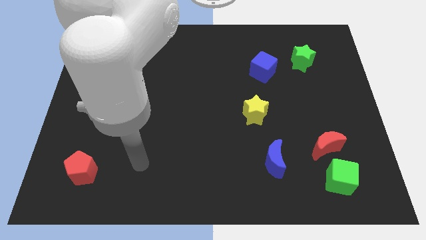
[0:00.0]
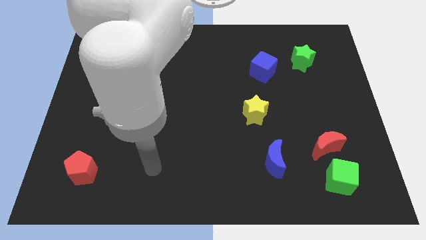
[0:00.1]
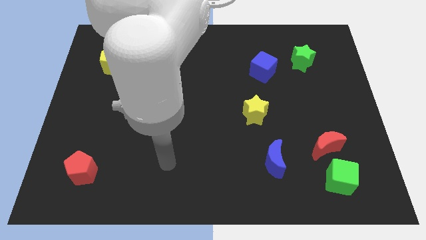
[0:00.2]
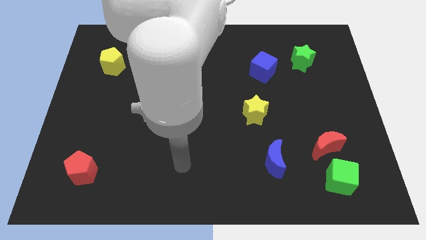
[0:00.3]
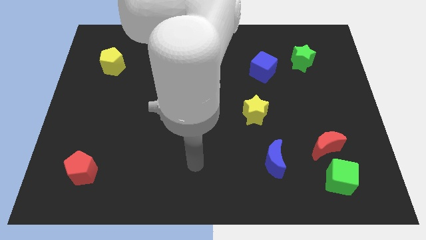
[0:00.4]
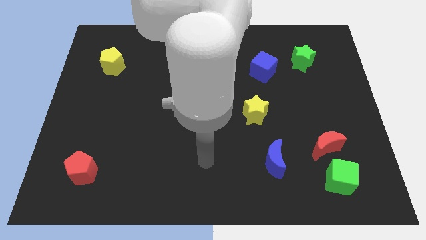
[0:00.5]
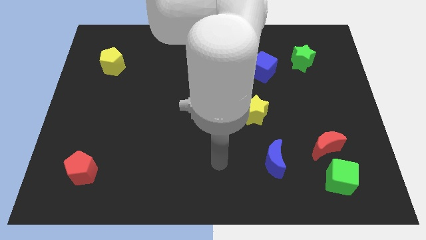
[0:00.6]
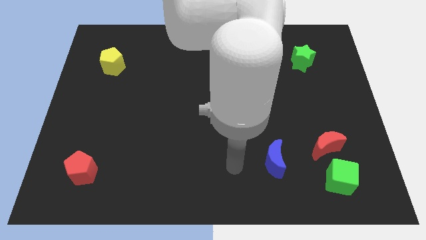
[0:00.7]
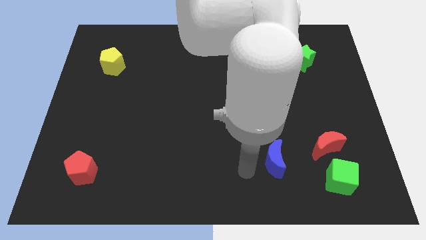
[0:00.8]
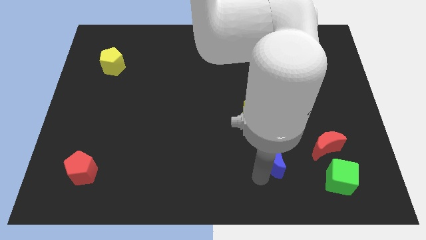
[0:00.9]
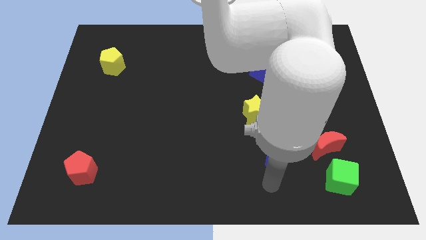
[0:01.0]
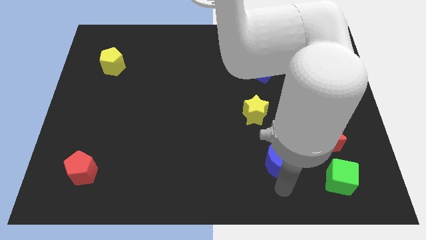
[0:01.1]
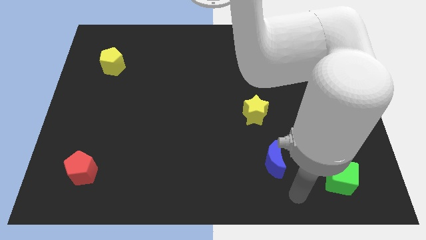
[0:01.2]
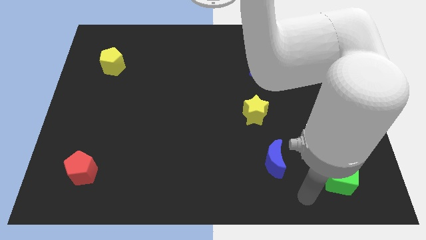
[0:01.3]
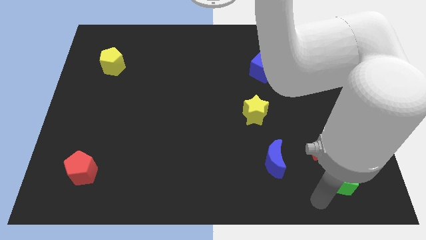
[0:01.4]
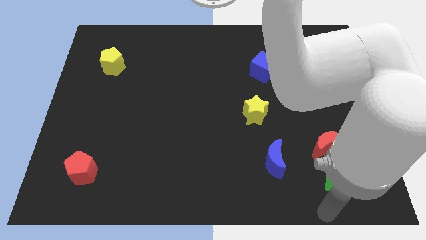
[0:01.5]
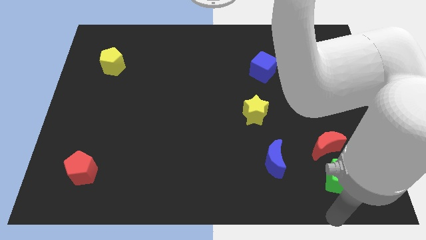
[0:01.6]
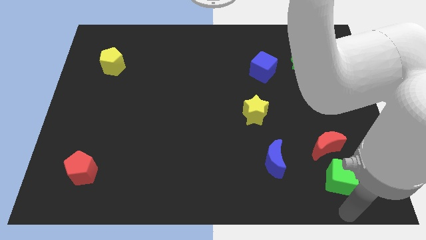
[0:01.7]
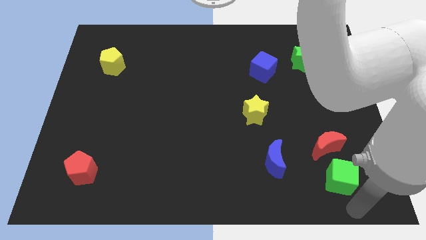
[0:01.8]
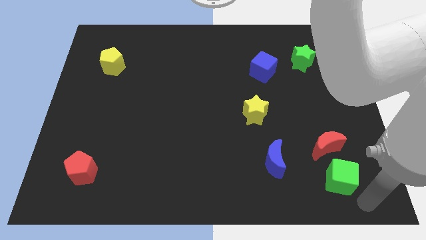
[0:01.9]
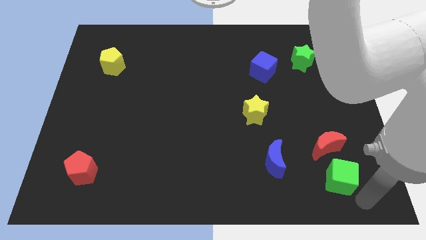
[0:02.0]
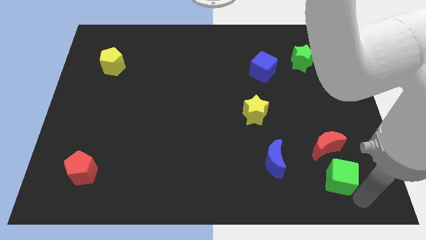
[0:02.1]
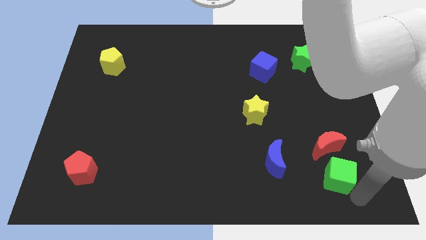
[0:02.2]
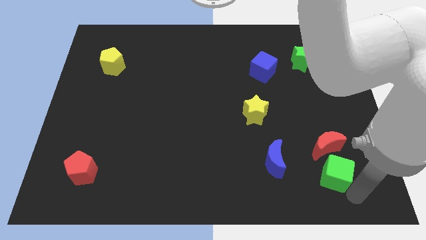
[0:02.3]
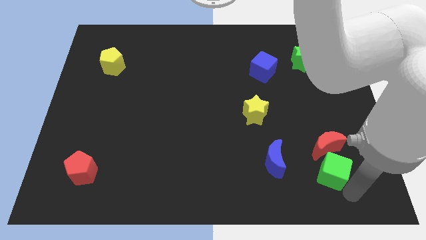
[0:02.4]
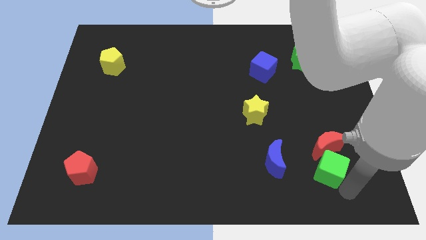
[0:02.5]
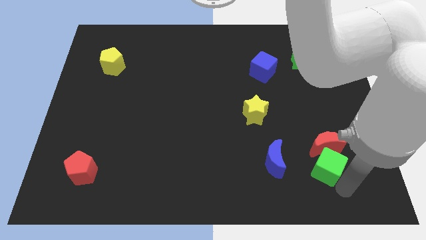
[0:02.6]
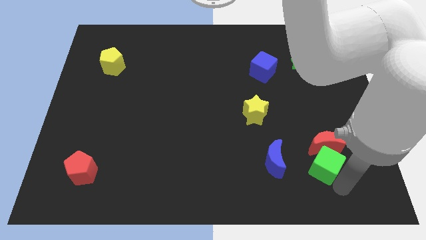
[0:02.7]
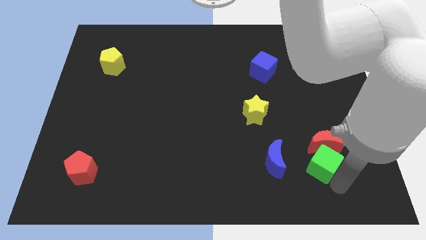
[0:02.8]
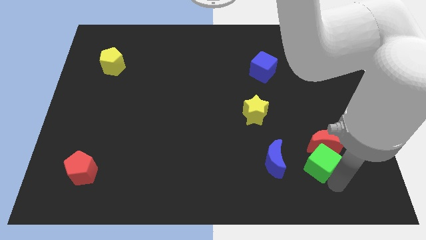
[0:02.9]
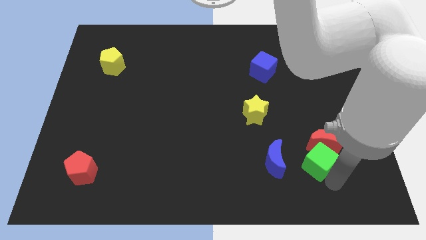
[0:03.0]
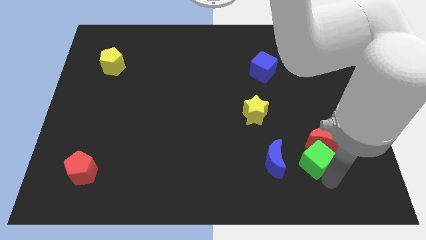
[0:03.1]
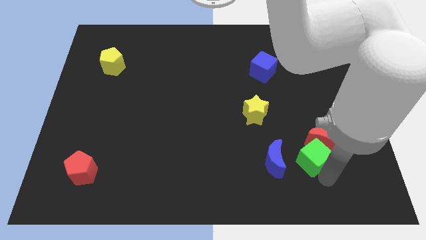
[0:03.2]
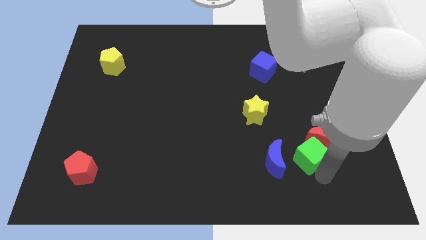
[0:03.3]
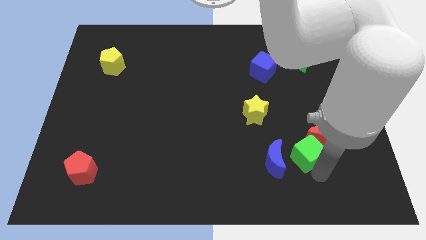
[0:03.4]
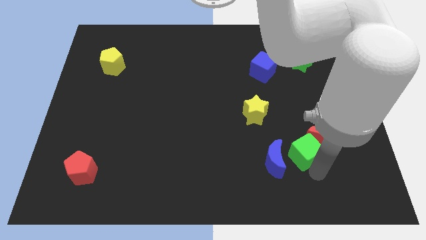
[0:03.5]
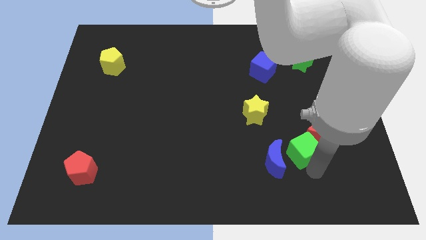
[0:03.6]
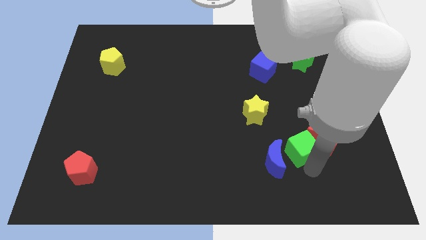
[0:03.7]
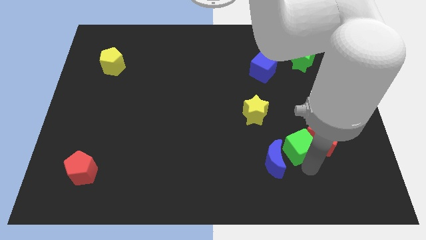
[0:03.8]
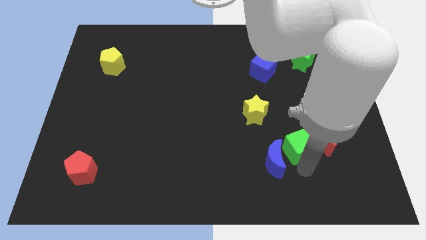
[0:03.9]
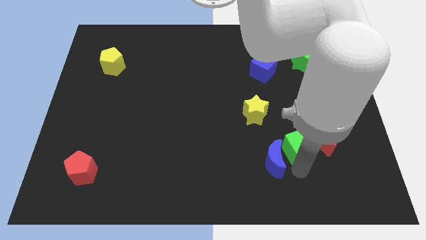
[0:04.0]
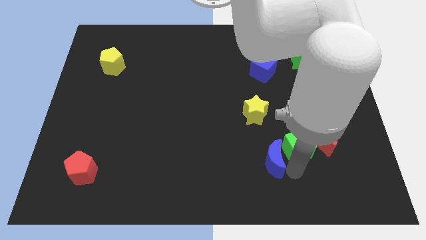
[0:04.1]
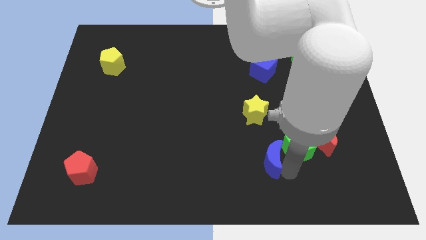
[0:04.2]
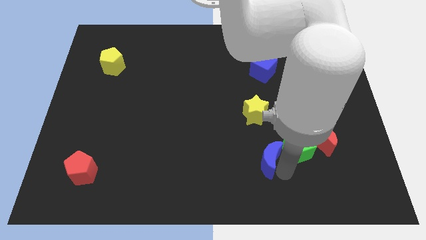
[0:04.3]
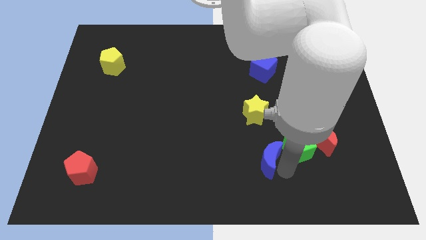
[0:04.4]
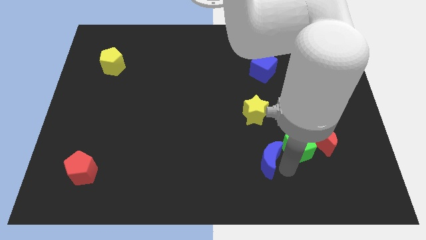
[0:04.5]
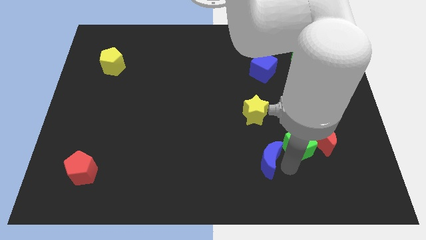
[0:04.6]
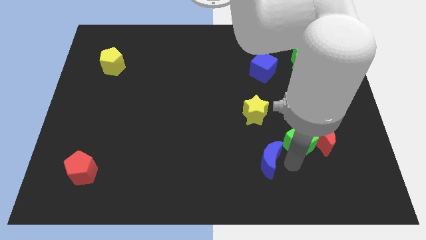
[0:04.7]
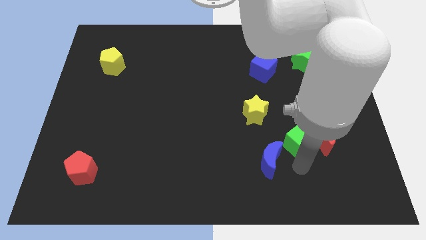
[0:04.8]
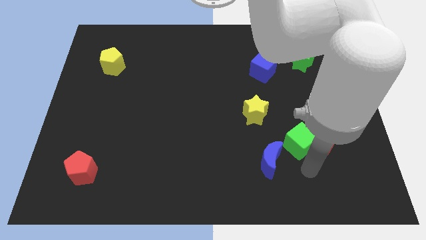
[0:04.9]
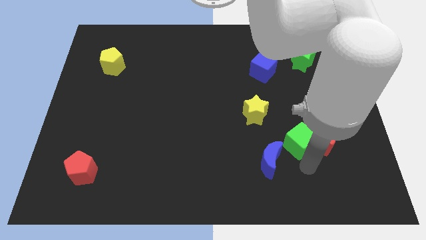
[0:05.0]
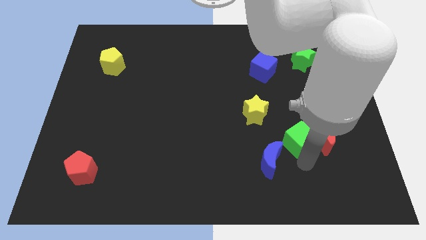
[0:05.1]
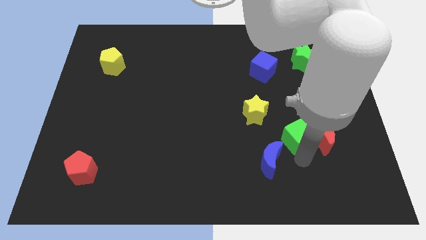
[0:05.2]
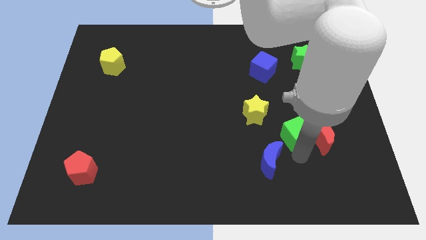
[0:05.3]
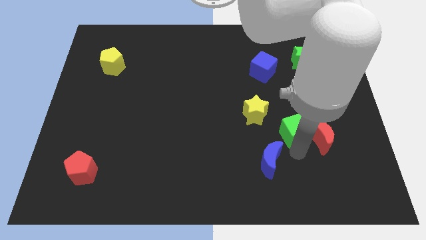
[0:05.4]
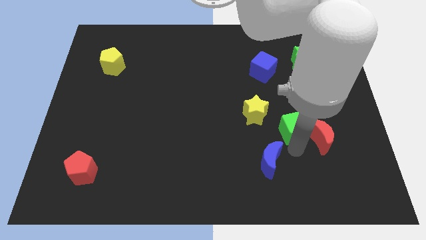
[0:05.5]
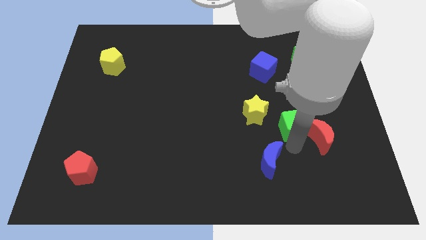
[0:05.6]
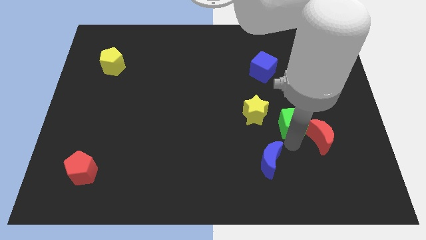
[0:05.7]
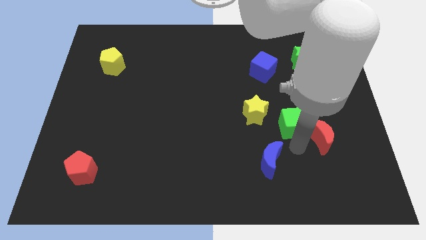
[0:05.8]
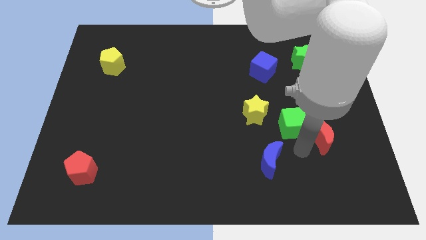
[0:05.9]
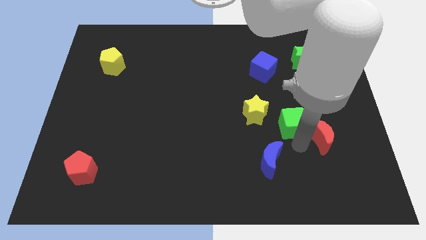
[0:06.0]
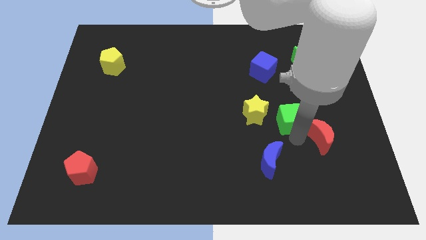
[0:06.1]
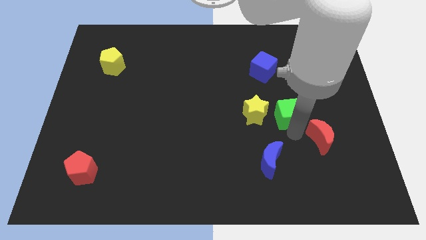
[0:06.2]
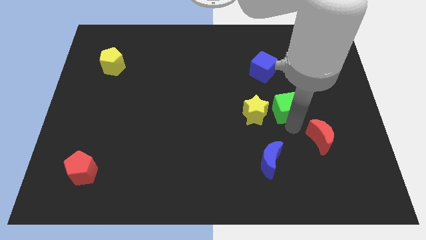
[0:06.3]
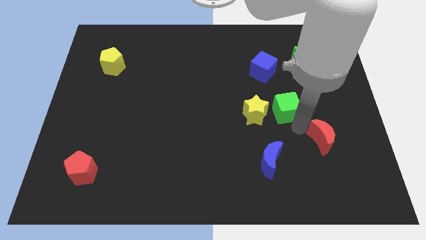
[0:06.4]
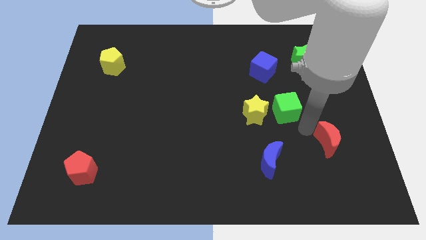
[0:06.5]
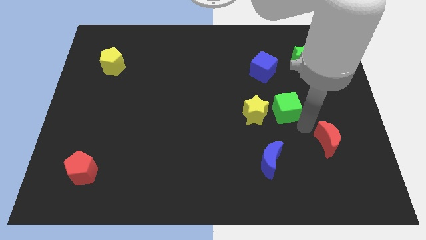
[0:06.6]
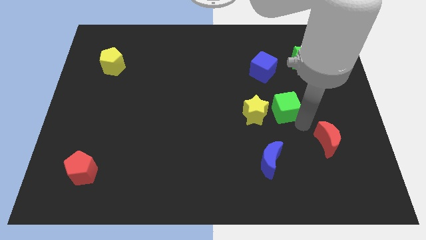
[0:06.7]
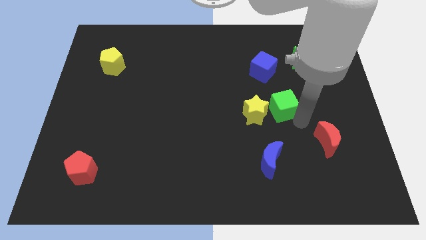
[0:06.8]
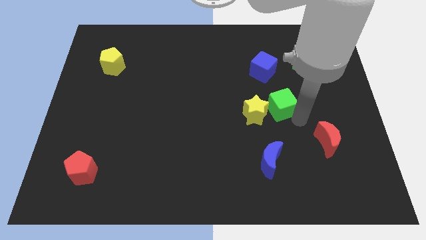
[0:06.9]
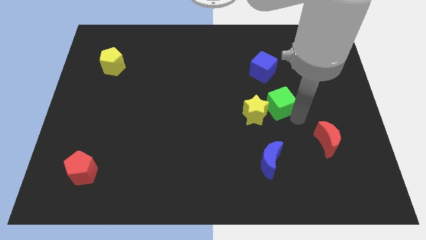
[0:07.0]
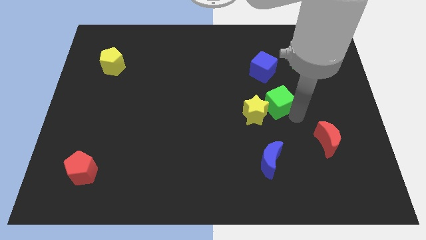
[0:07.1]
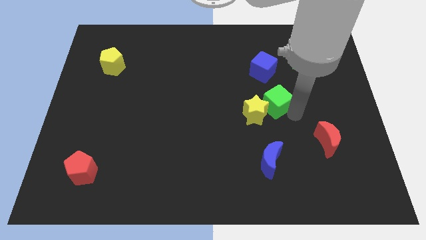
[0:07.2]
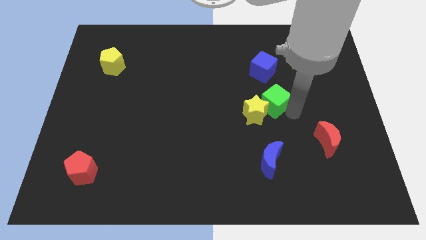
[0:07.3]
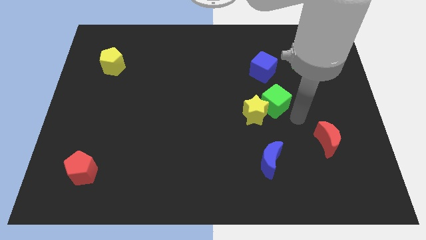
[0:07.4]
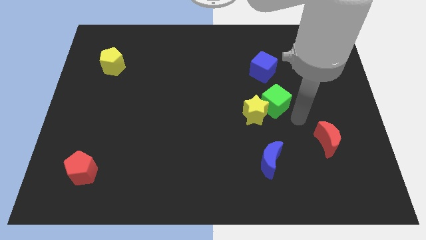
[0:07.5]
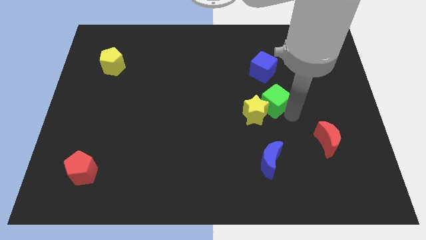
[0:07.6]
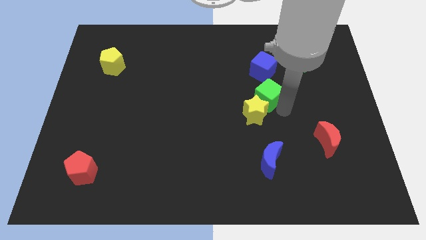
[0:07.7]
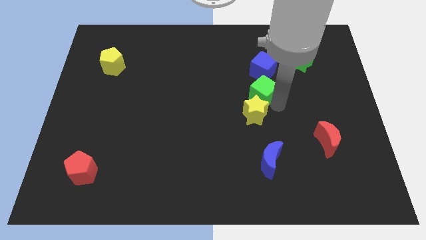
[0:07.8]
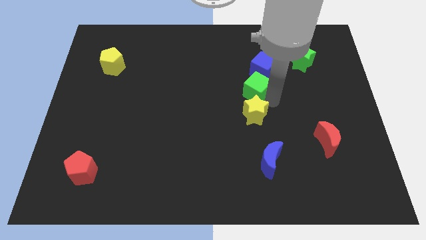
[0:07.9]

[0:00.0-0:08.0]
push the green cube diagonally down and to the left of the blue cube
